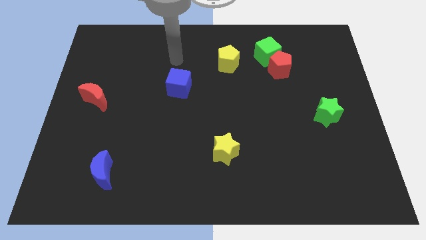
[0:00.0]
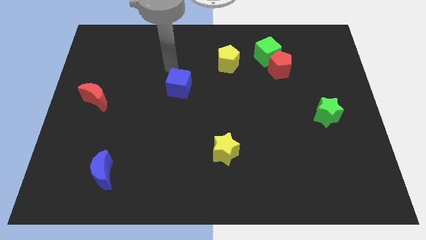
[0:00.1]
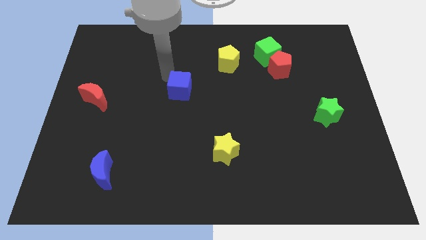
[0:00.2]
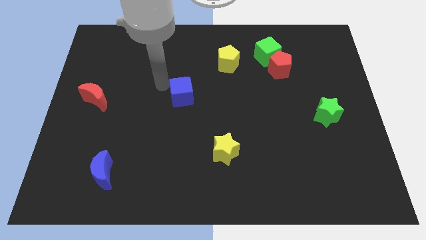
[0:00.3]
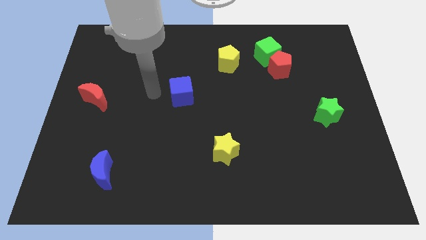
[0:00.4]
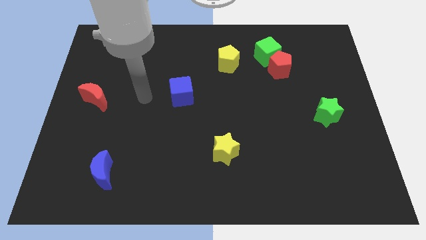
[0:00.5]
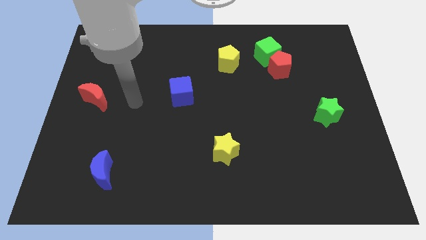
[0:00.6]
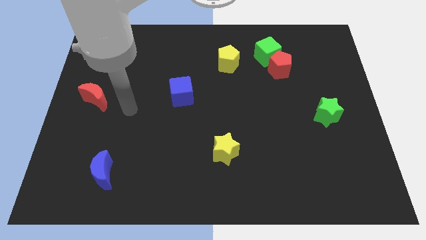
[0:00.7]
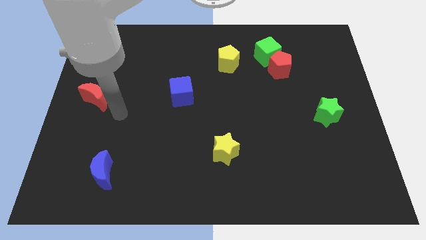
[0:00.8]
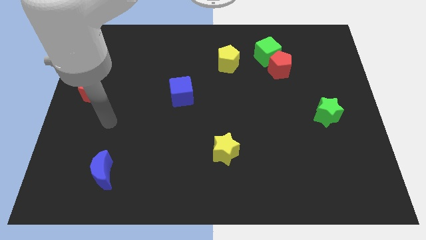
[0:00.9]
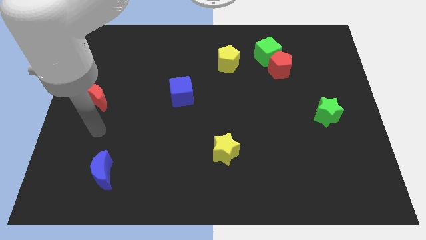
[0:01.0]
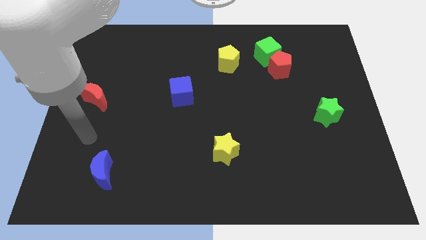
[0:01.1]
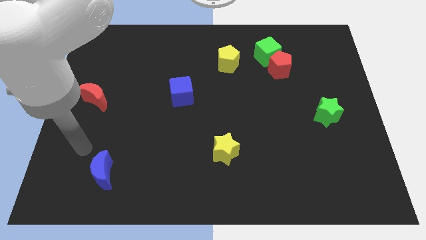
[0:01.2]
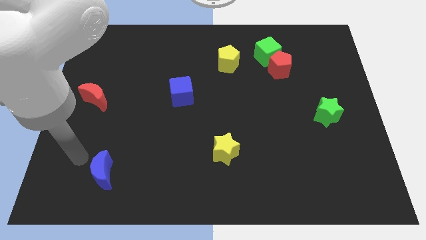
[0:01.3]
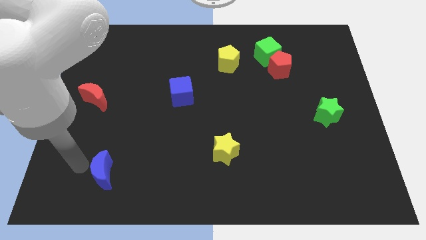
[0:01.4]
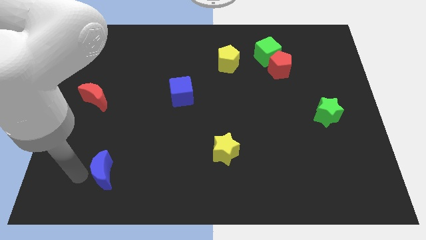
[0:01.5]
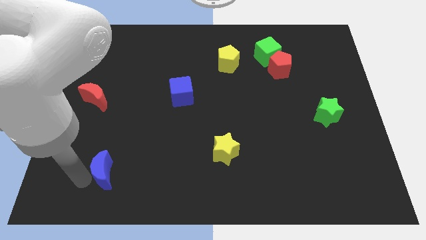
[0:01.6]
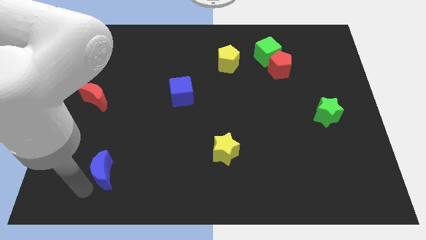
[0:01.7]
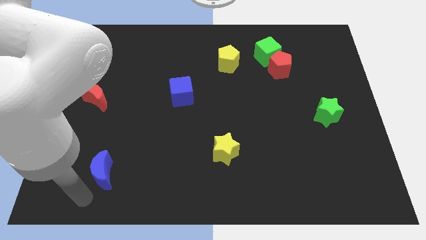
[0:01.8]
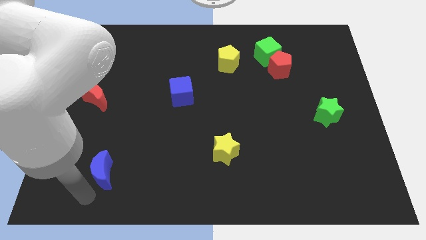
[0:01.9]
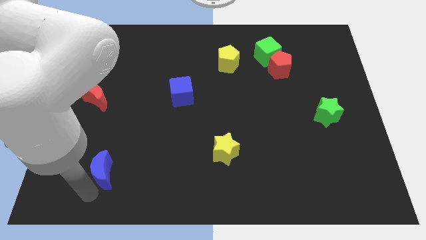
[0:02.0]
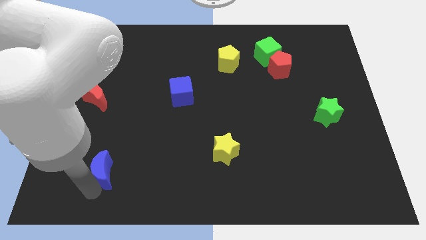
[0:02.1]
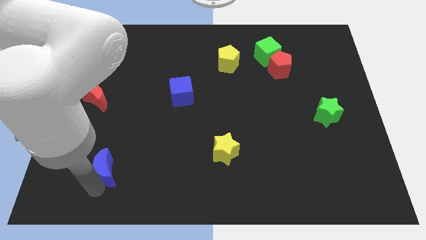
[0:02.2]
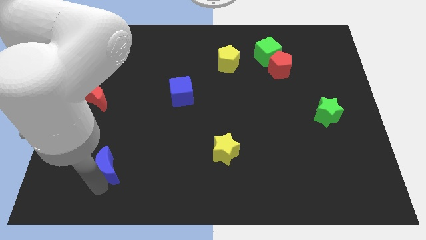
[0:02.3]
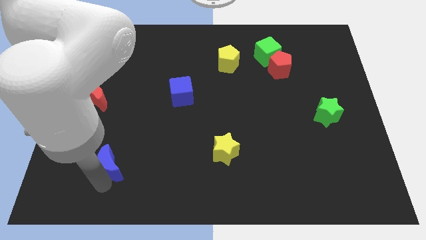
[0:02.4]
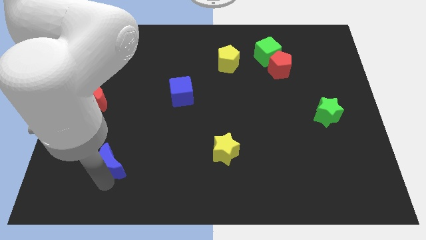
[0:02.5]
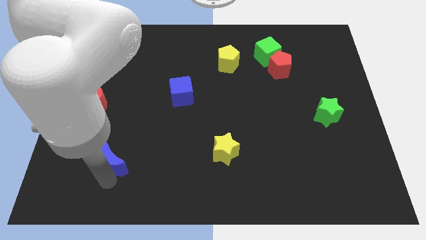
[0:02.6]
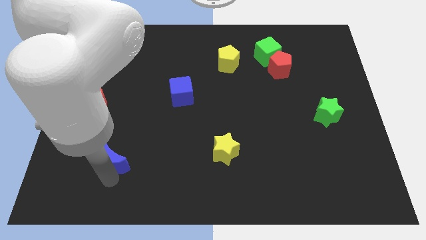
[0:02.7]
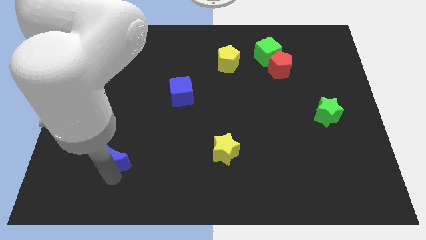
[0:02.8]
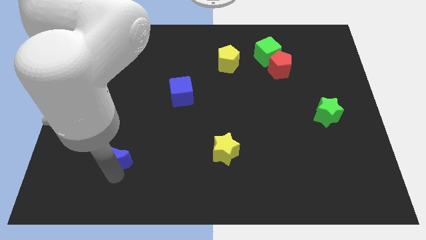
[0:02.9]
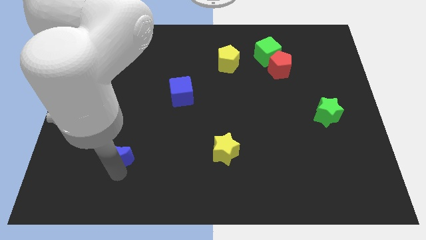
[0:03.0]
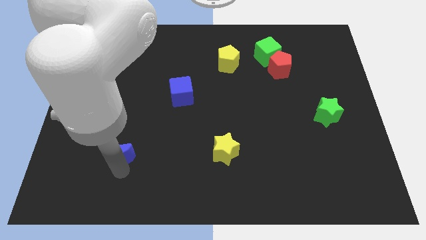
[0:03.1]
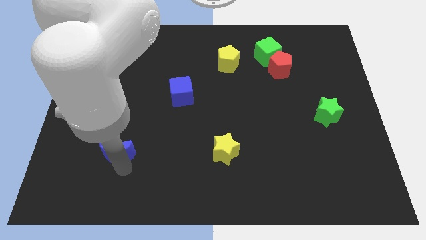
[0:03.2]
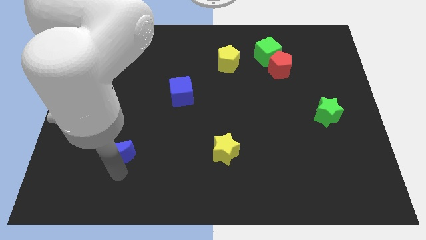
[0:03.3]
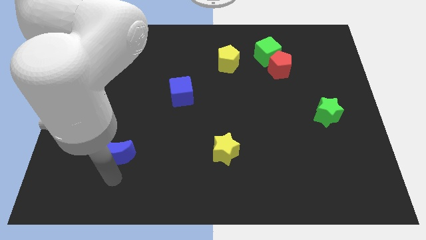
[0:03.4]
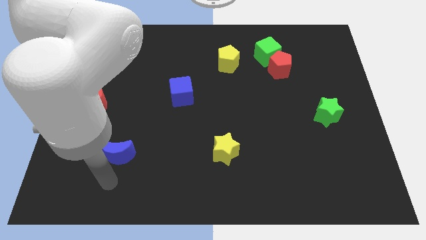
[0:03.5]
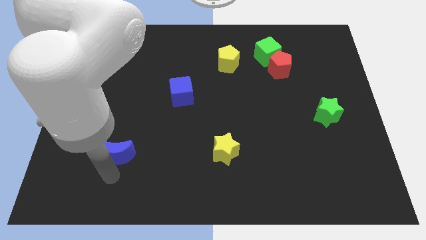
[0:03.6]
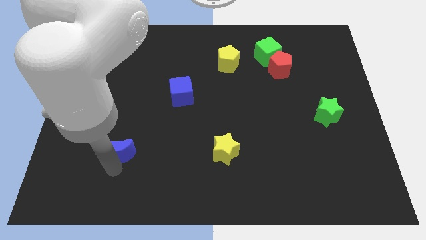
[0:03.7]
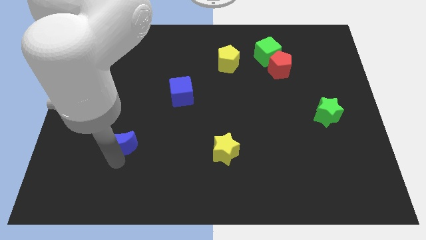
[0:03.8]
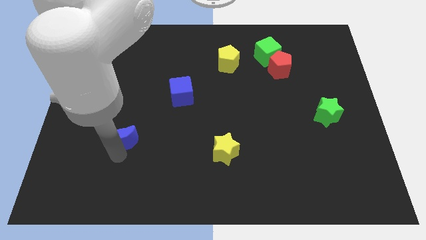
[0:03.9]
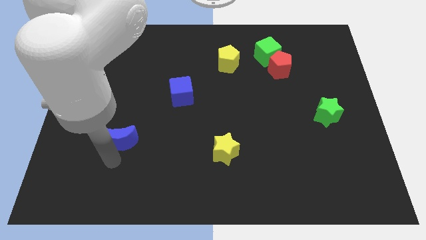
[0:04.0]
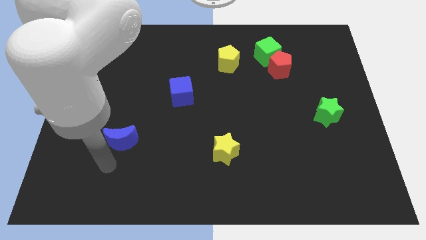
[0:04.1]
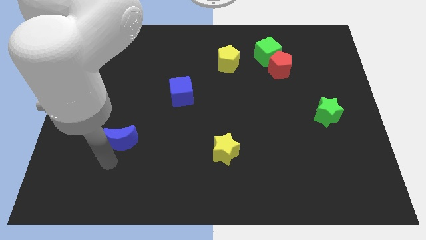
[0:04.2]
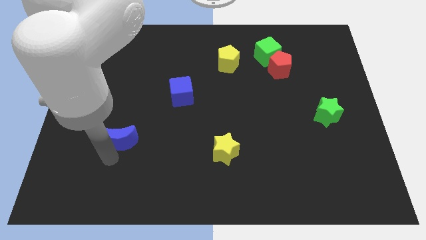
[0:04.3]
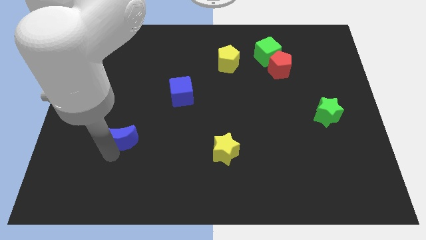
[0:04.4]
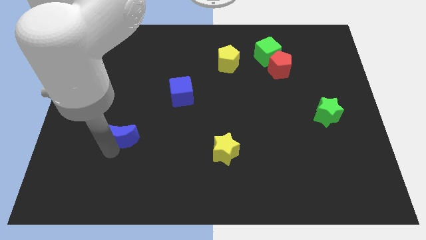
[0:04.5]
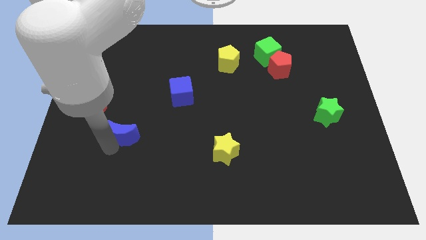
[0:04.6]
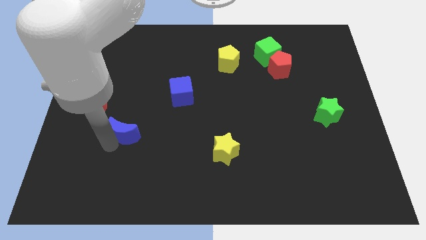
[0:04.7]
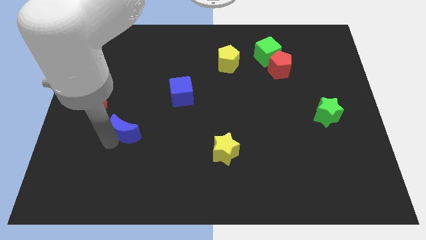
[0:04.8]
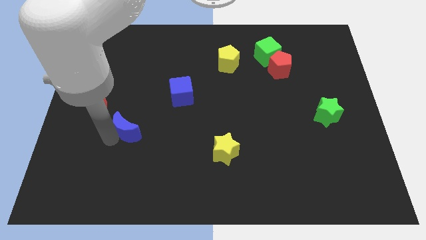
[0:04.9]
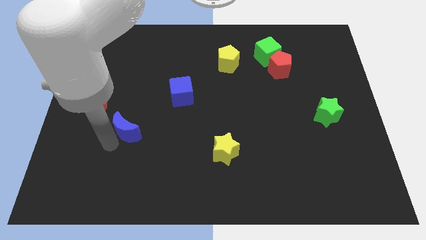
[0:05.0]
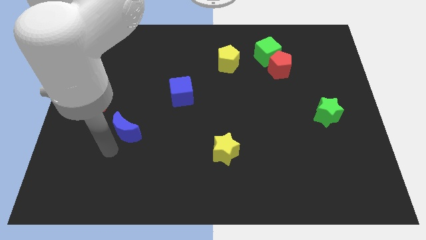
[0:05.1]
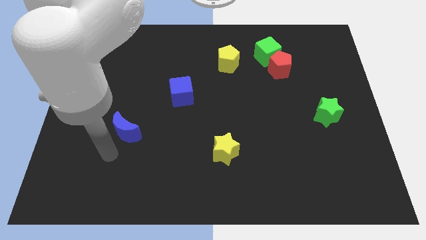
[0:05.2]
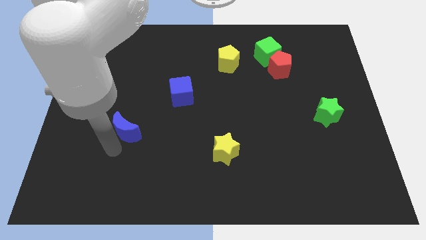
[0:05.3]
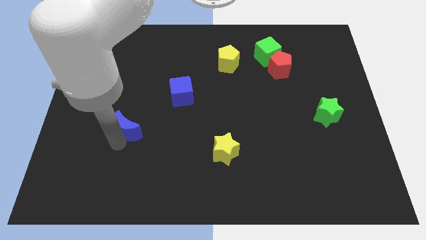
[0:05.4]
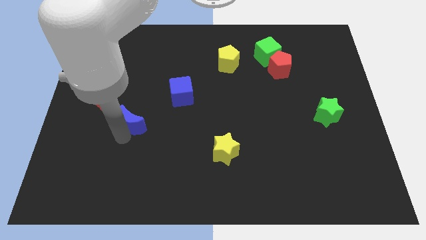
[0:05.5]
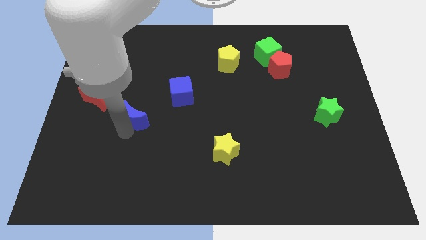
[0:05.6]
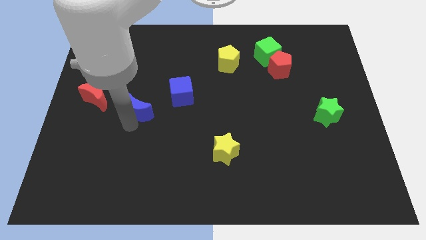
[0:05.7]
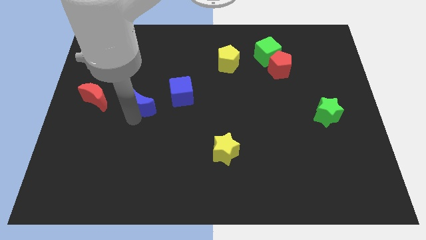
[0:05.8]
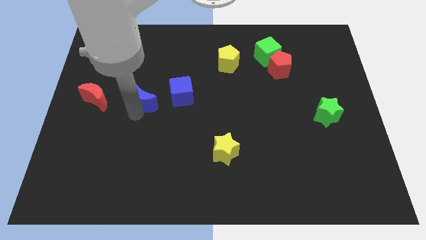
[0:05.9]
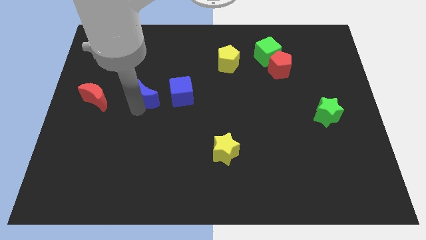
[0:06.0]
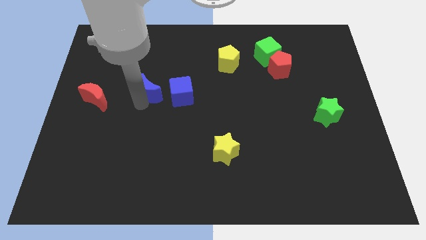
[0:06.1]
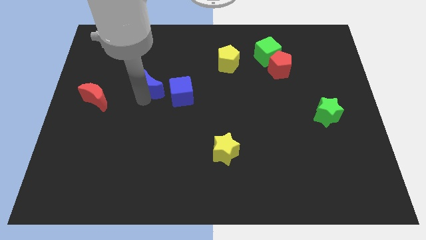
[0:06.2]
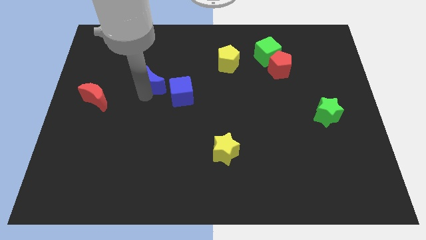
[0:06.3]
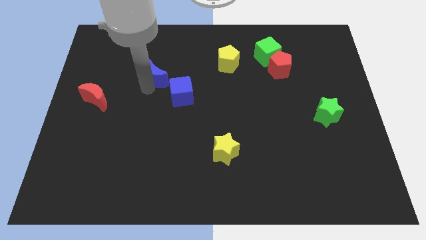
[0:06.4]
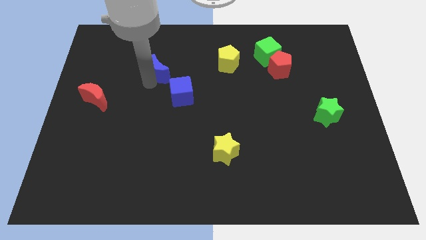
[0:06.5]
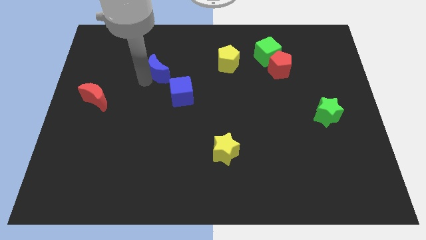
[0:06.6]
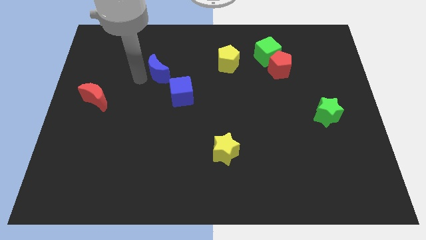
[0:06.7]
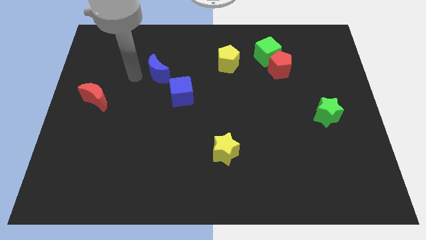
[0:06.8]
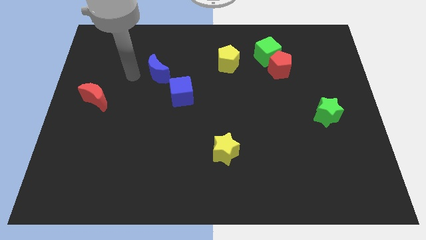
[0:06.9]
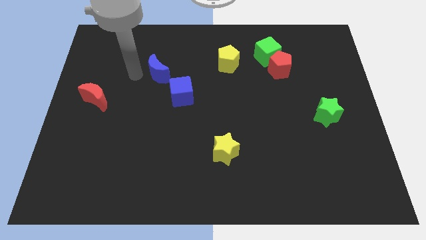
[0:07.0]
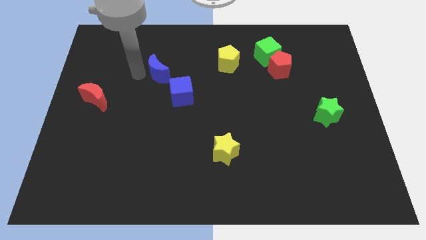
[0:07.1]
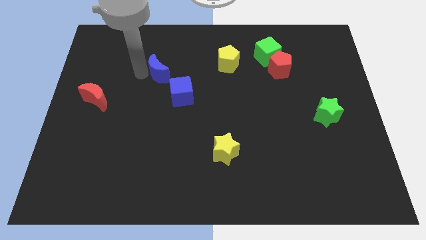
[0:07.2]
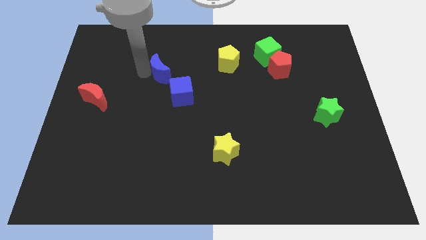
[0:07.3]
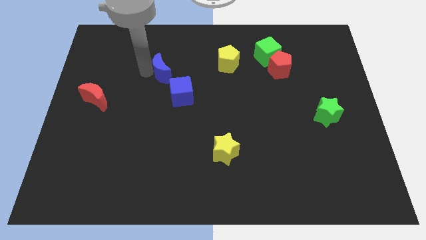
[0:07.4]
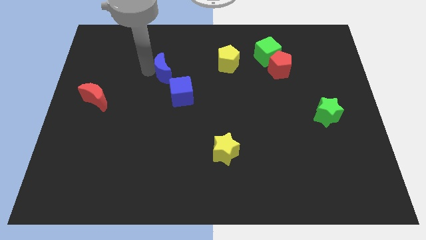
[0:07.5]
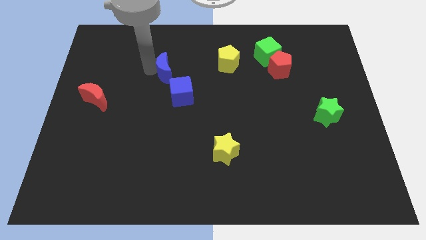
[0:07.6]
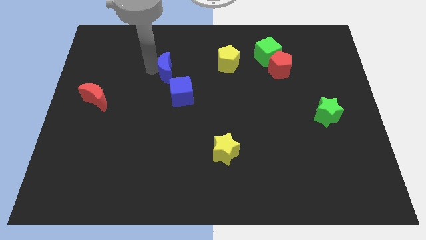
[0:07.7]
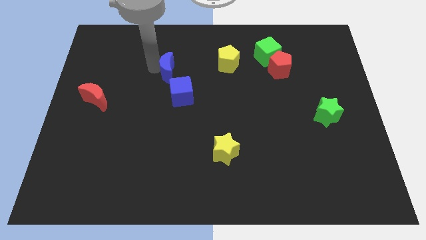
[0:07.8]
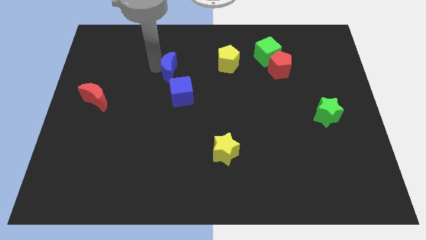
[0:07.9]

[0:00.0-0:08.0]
put the blue moon to the left of the yellow pentagon
